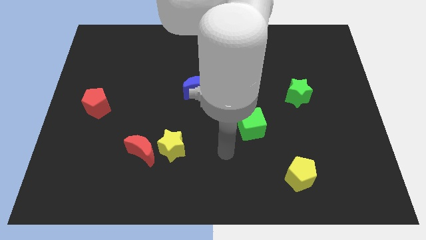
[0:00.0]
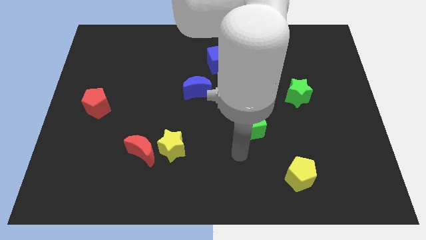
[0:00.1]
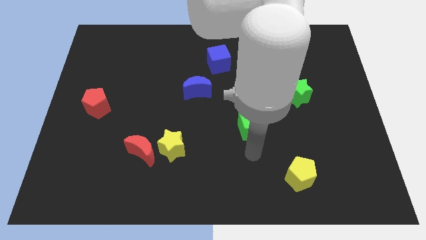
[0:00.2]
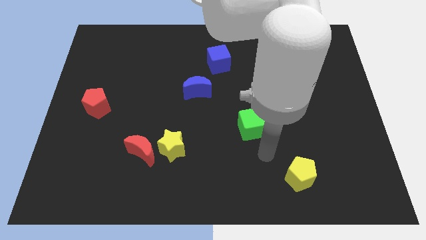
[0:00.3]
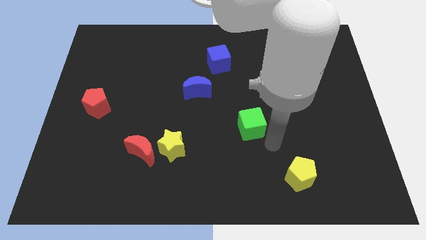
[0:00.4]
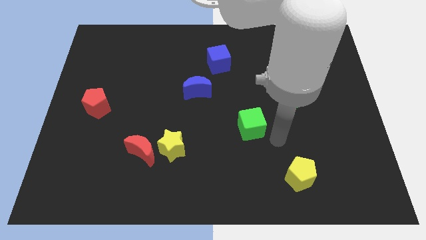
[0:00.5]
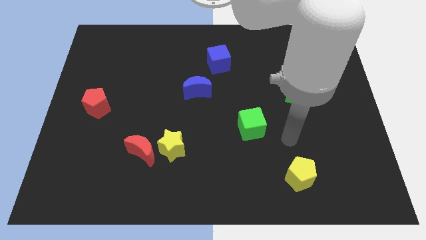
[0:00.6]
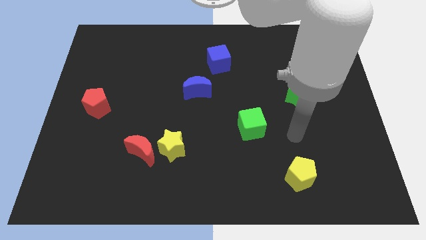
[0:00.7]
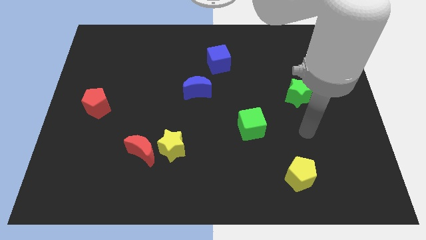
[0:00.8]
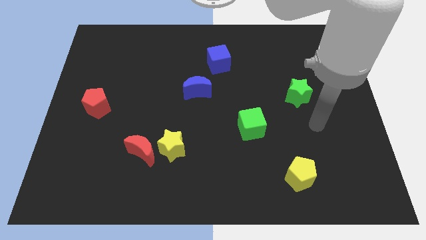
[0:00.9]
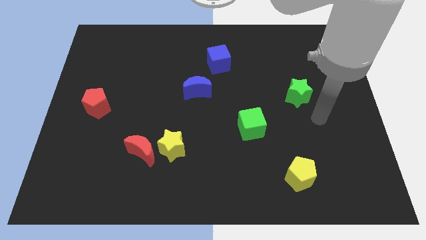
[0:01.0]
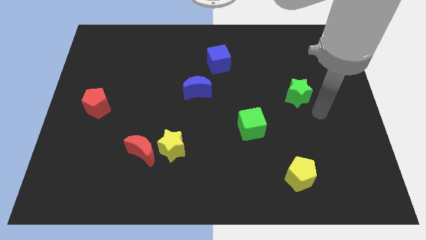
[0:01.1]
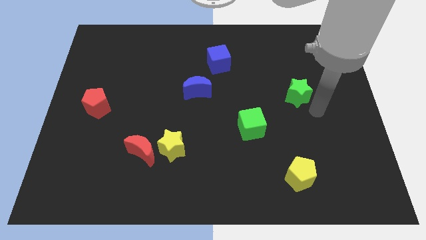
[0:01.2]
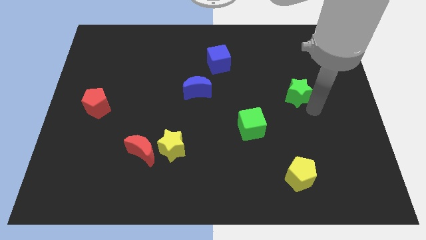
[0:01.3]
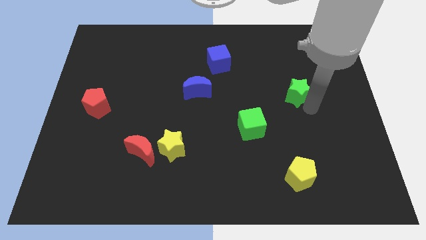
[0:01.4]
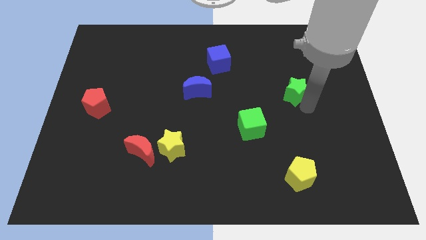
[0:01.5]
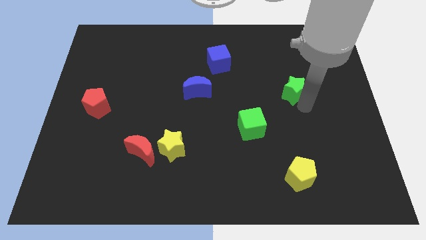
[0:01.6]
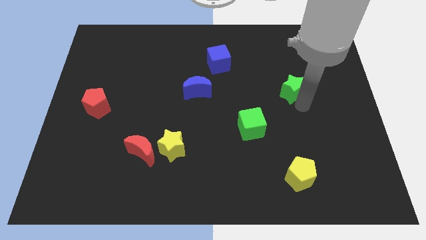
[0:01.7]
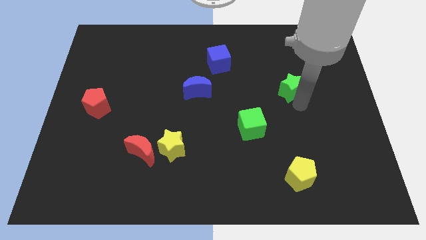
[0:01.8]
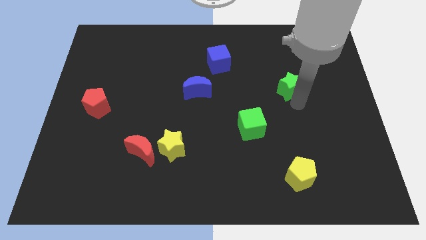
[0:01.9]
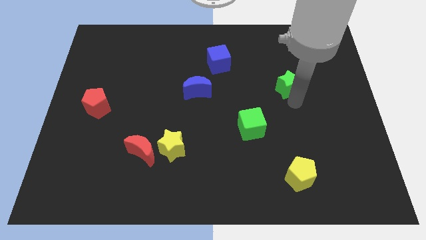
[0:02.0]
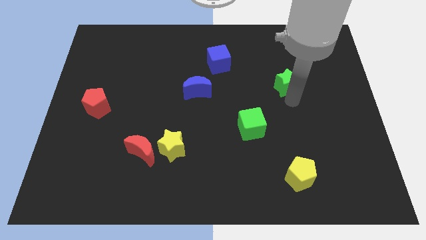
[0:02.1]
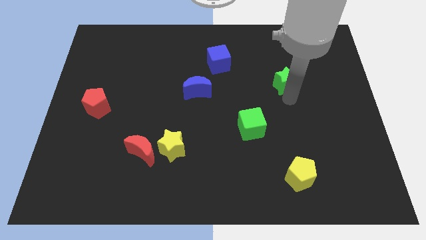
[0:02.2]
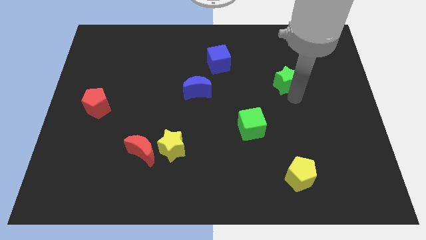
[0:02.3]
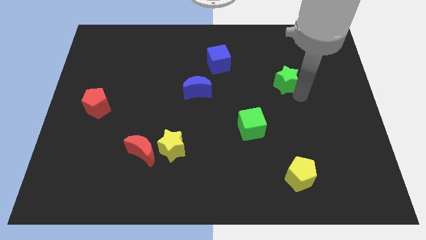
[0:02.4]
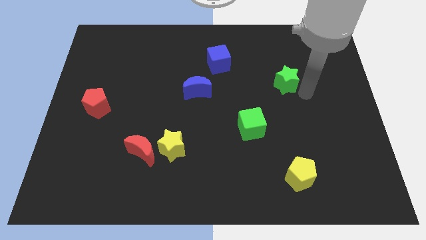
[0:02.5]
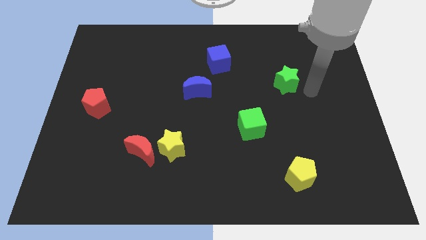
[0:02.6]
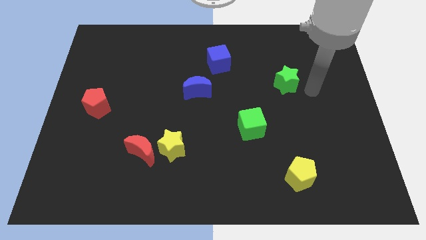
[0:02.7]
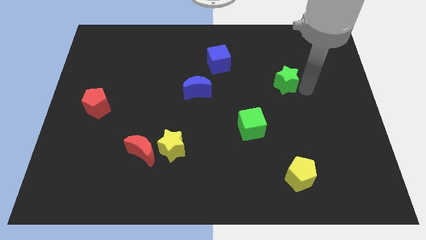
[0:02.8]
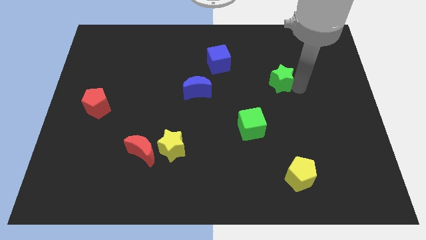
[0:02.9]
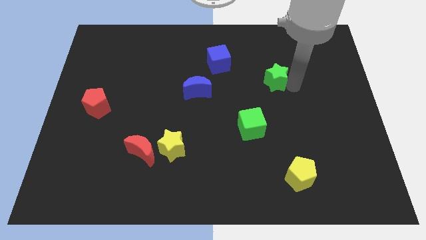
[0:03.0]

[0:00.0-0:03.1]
push the green star slightly upwards and then to the left

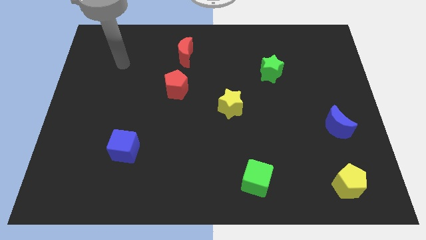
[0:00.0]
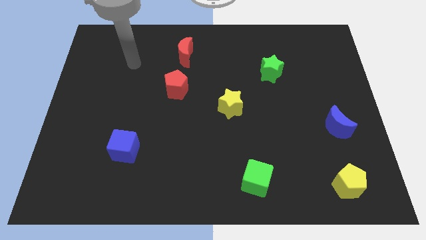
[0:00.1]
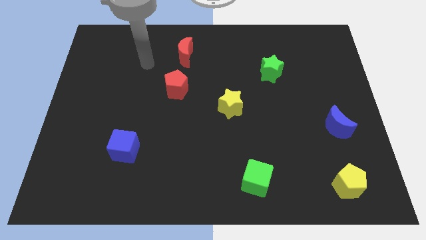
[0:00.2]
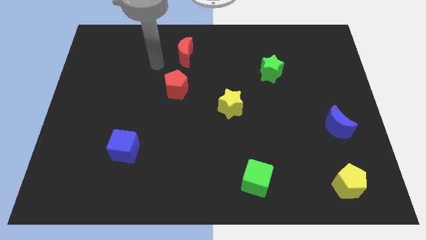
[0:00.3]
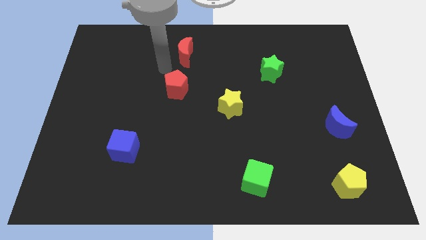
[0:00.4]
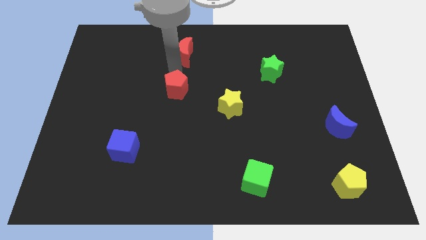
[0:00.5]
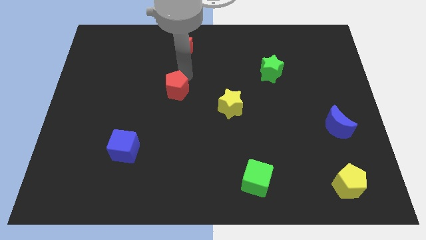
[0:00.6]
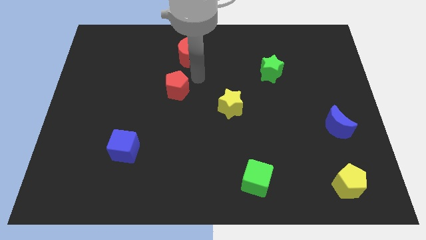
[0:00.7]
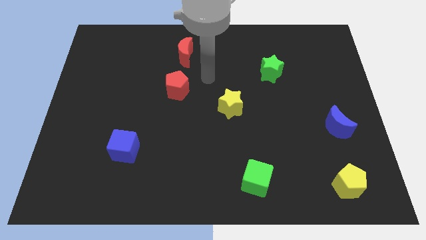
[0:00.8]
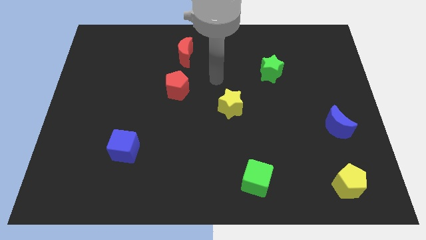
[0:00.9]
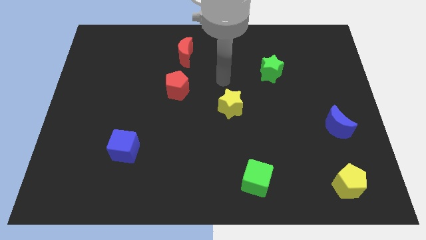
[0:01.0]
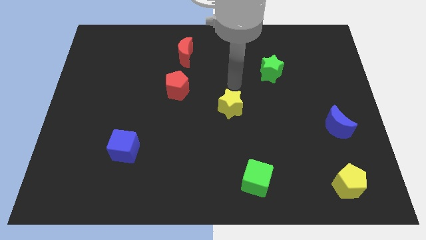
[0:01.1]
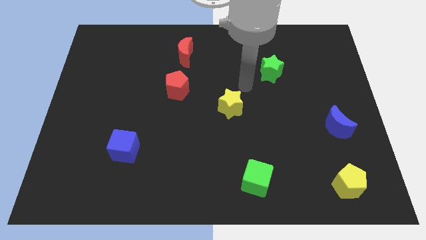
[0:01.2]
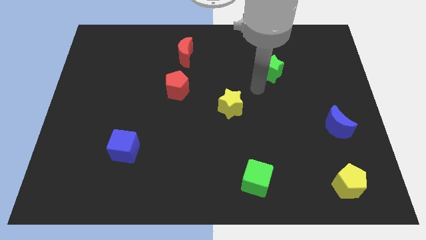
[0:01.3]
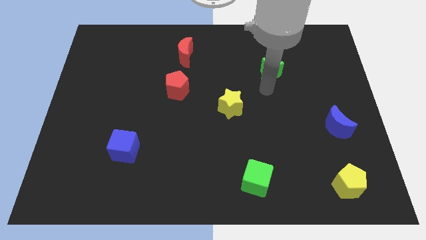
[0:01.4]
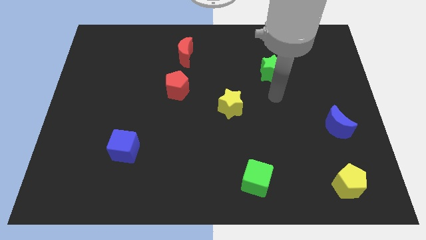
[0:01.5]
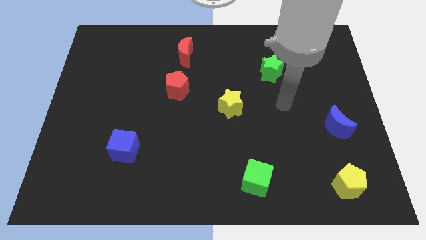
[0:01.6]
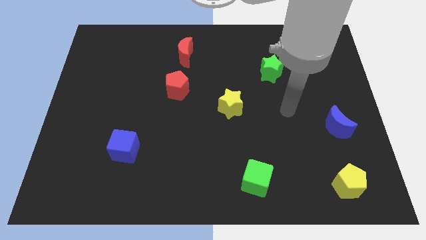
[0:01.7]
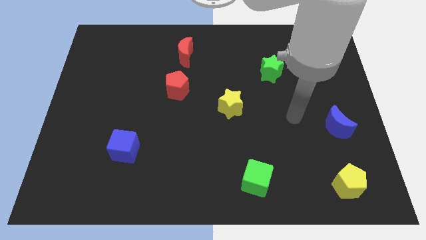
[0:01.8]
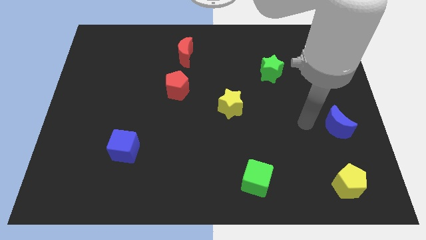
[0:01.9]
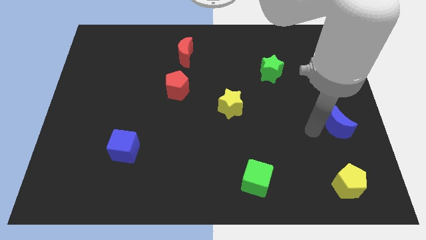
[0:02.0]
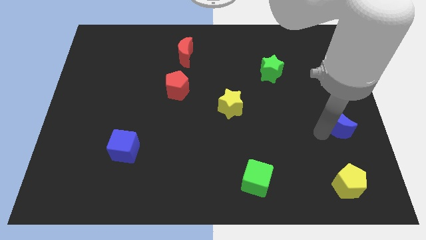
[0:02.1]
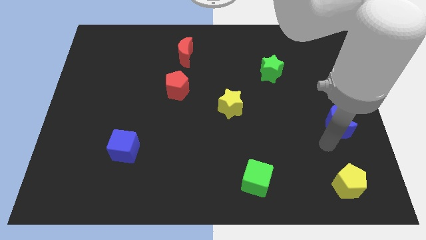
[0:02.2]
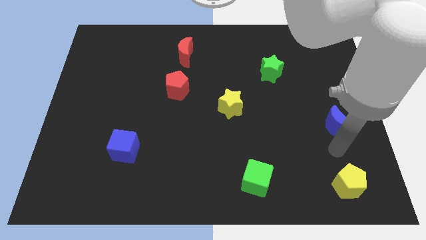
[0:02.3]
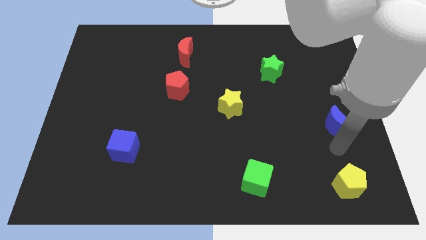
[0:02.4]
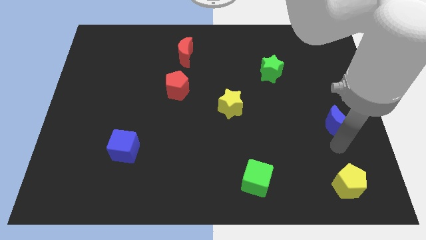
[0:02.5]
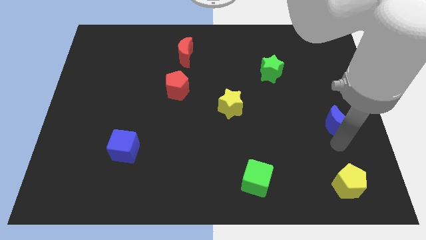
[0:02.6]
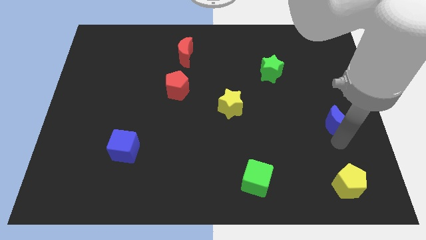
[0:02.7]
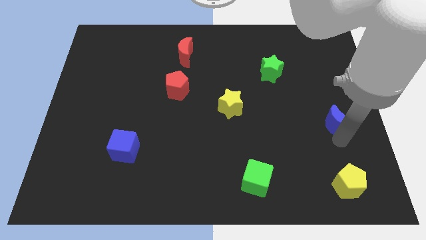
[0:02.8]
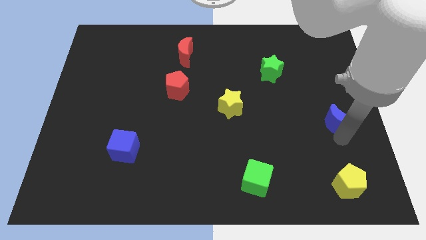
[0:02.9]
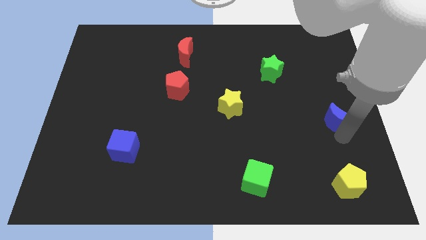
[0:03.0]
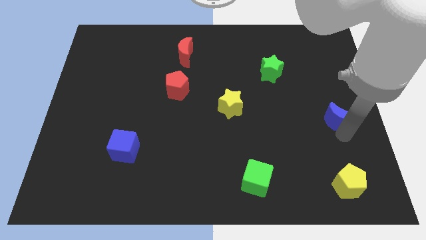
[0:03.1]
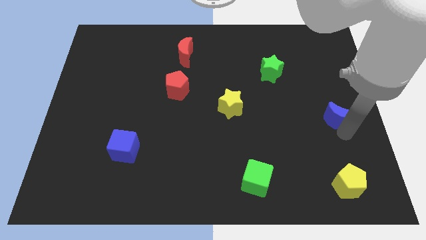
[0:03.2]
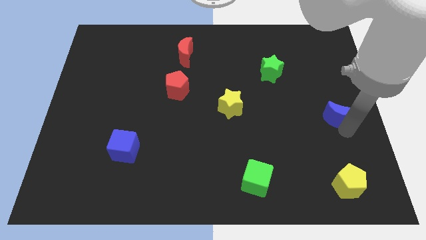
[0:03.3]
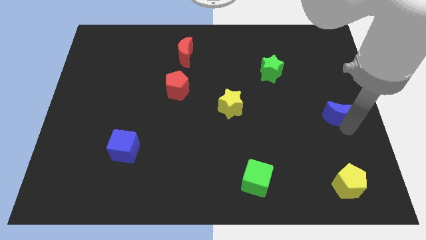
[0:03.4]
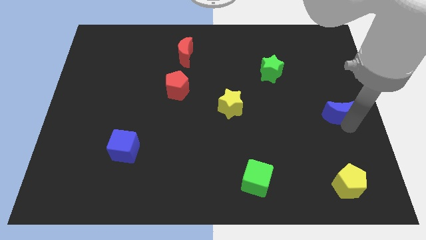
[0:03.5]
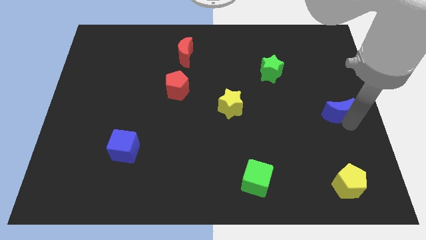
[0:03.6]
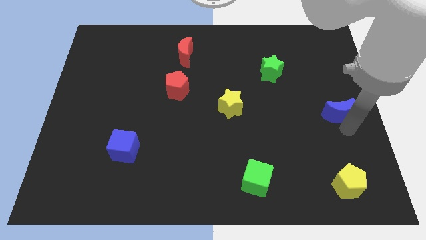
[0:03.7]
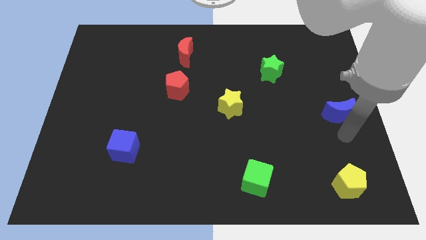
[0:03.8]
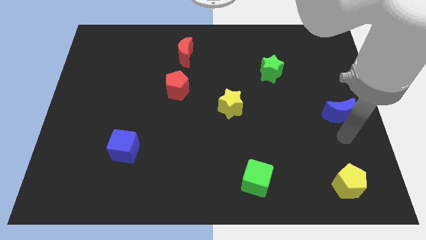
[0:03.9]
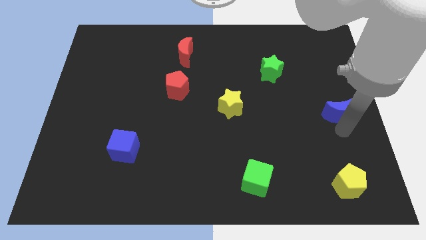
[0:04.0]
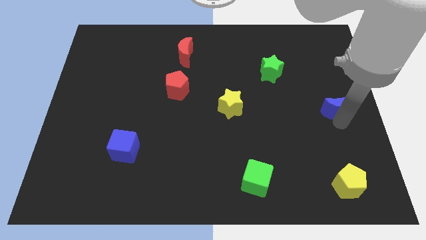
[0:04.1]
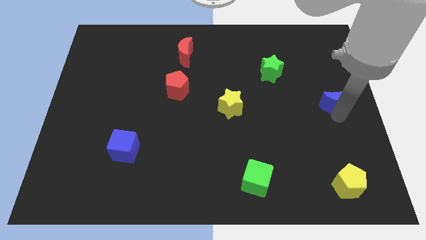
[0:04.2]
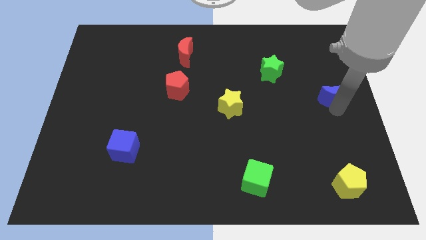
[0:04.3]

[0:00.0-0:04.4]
push the blue moon up slightly
